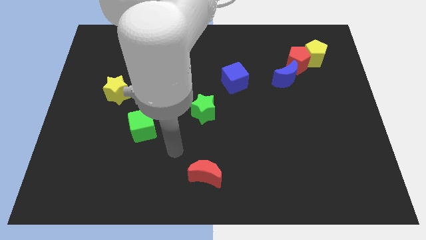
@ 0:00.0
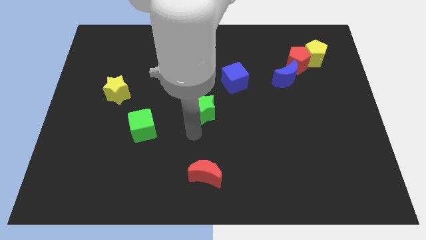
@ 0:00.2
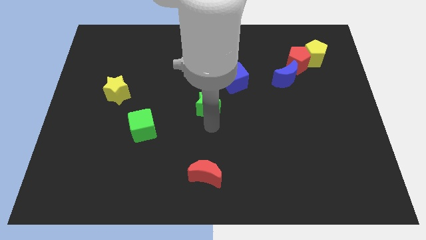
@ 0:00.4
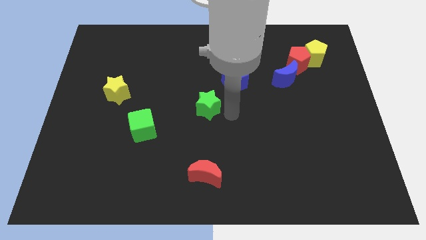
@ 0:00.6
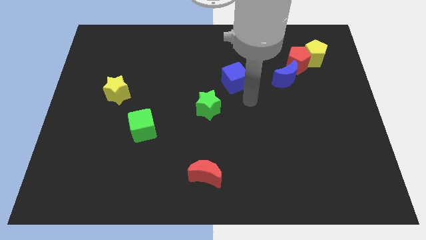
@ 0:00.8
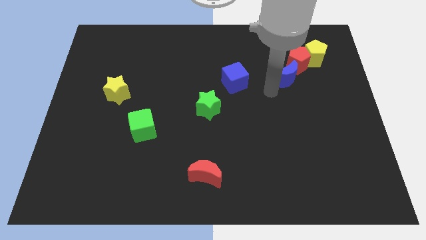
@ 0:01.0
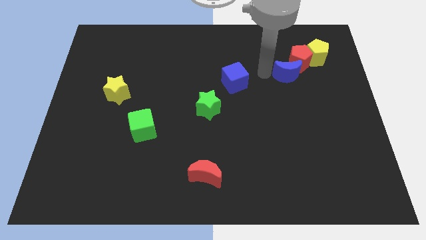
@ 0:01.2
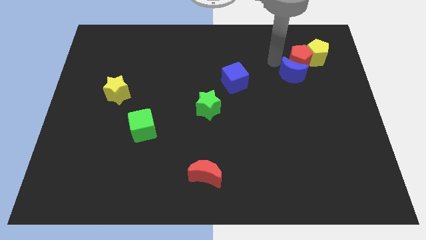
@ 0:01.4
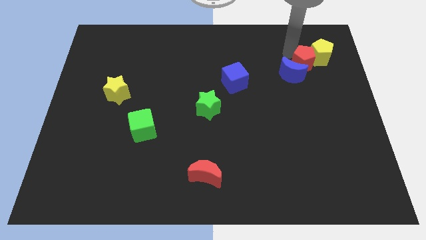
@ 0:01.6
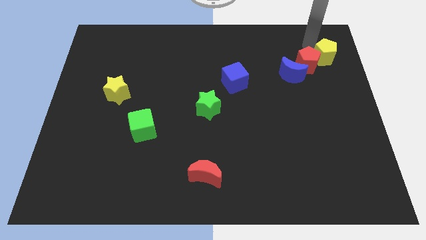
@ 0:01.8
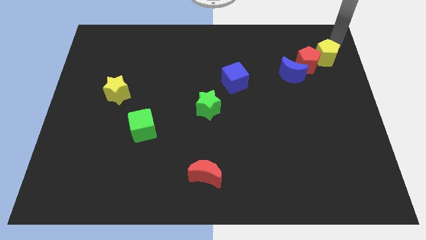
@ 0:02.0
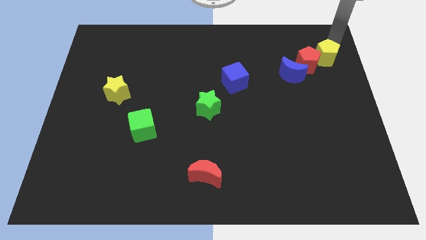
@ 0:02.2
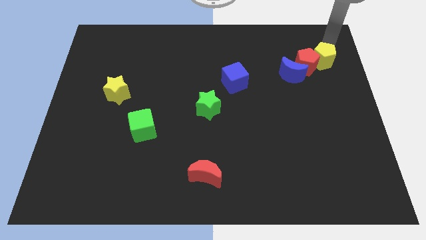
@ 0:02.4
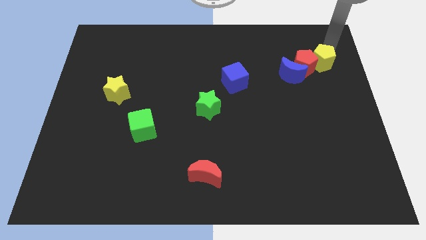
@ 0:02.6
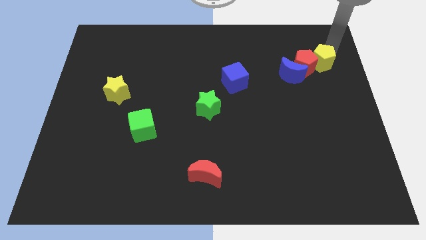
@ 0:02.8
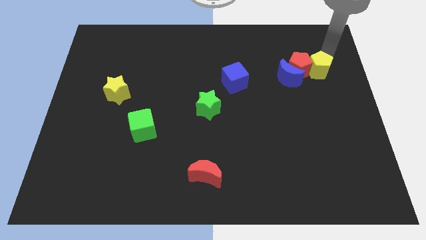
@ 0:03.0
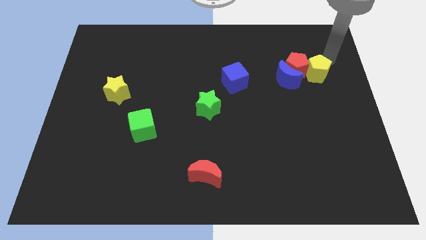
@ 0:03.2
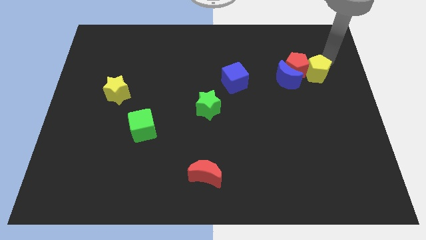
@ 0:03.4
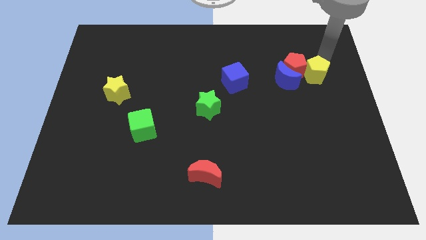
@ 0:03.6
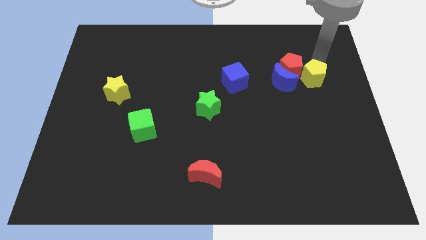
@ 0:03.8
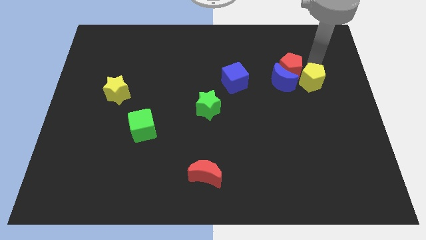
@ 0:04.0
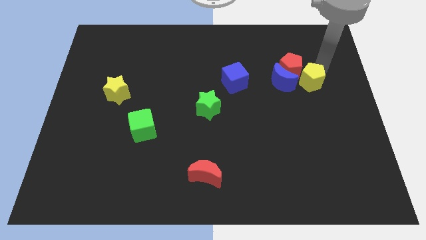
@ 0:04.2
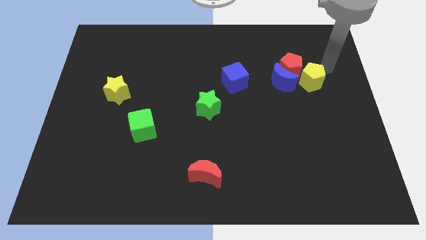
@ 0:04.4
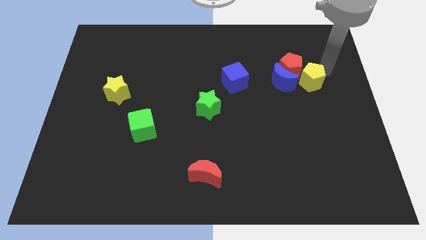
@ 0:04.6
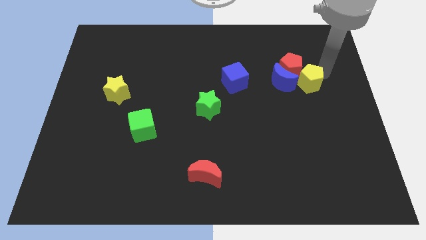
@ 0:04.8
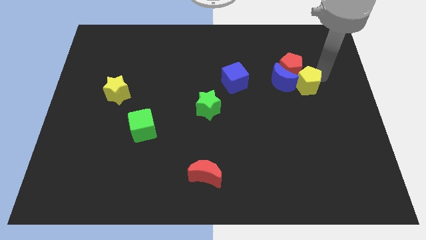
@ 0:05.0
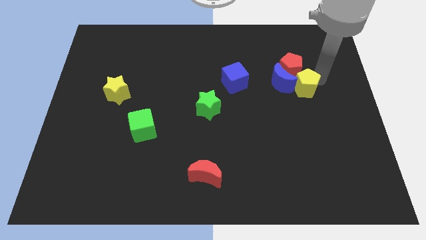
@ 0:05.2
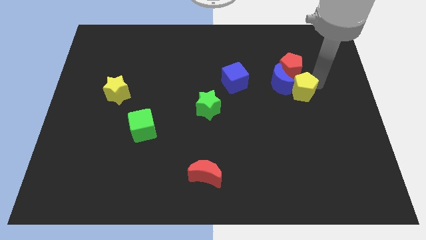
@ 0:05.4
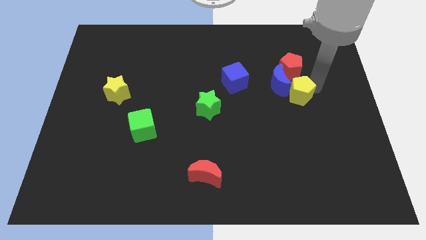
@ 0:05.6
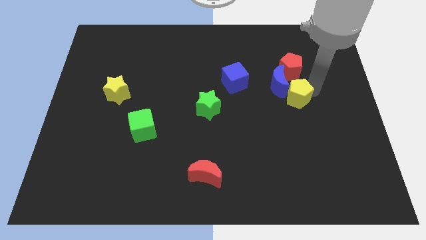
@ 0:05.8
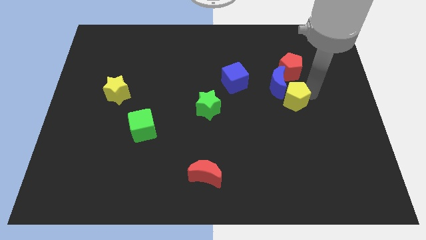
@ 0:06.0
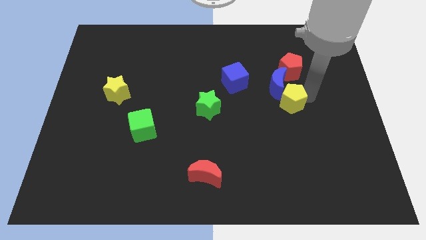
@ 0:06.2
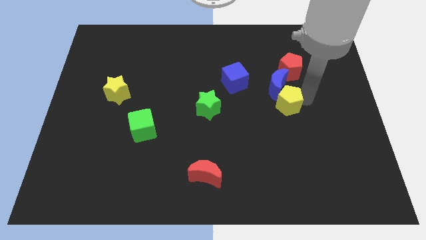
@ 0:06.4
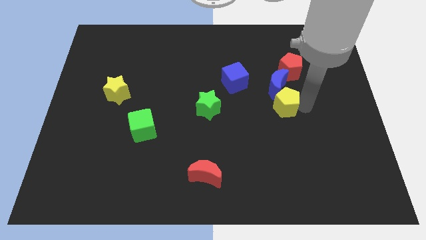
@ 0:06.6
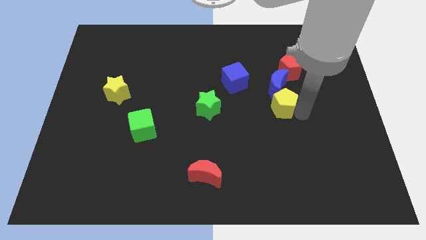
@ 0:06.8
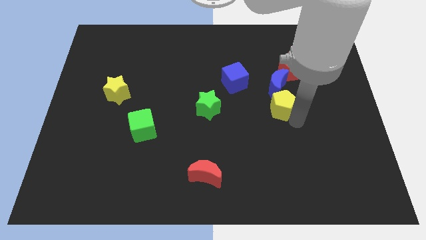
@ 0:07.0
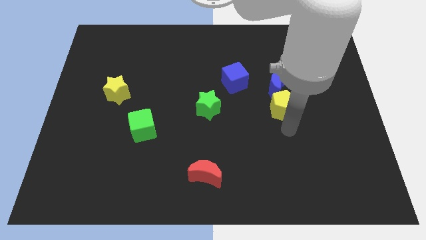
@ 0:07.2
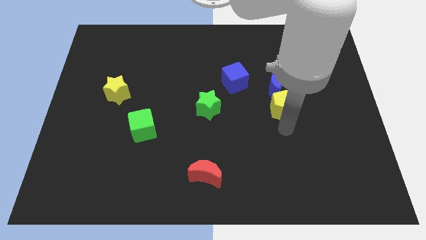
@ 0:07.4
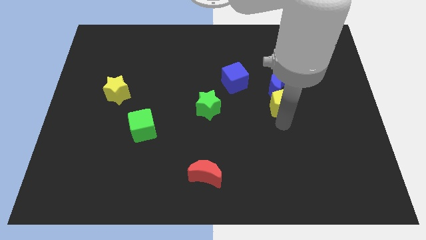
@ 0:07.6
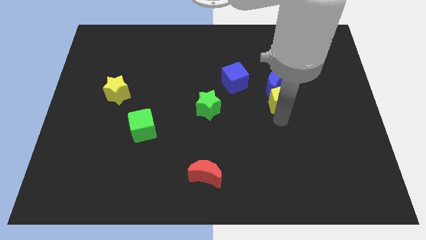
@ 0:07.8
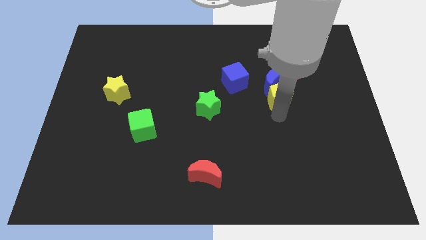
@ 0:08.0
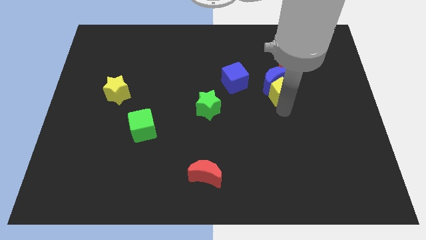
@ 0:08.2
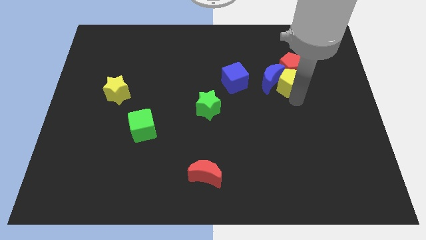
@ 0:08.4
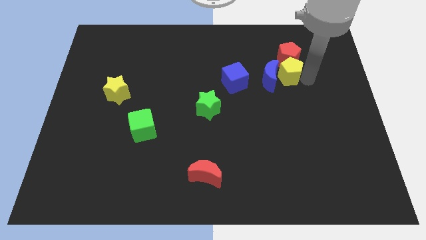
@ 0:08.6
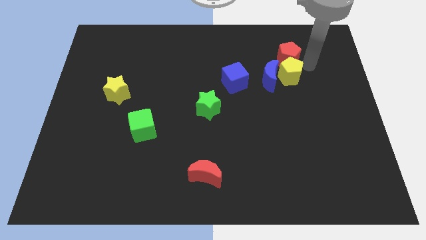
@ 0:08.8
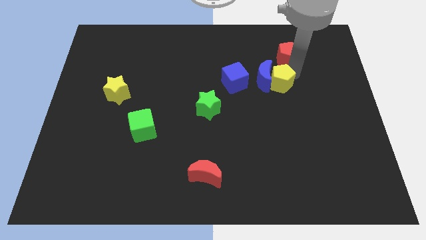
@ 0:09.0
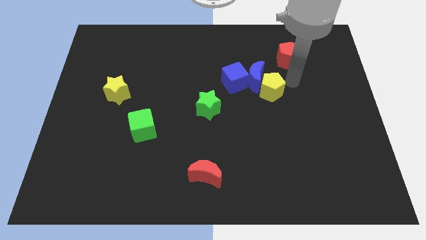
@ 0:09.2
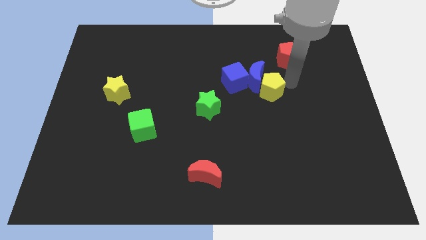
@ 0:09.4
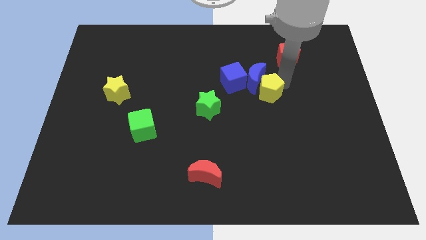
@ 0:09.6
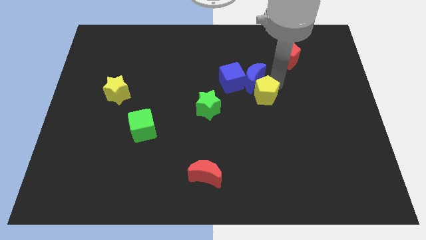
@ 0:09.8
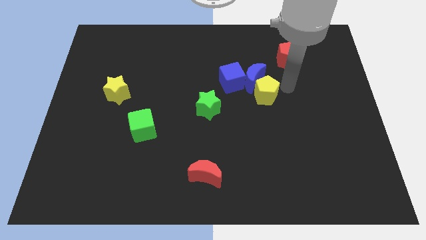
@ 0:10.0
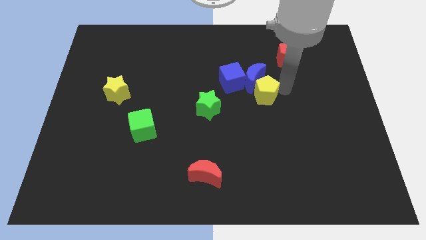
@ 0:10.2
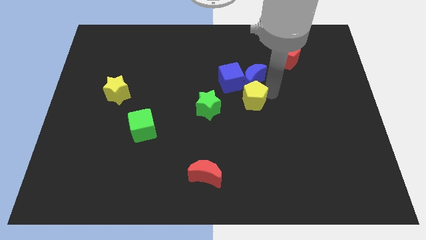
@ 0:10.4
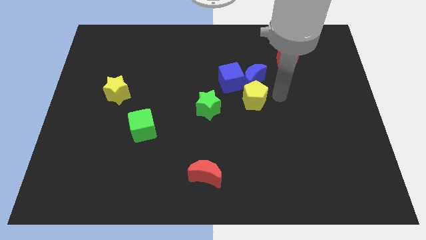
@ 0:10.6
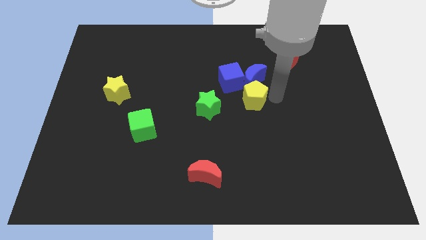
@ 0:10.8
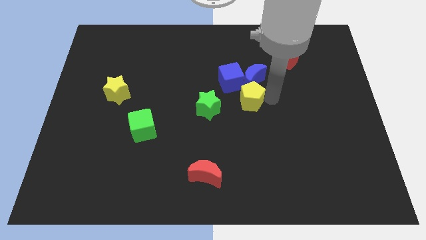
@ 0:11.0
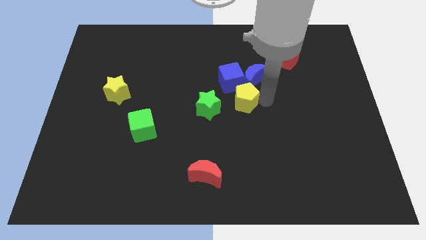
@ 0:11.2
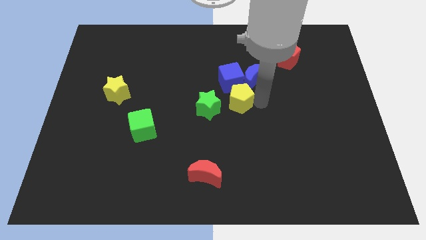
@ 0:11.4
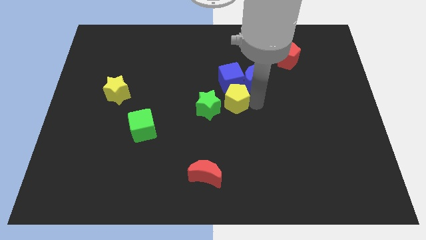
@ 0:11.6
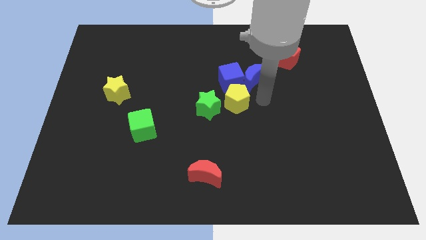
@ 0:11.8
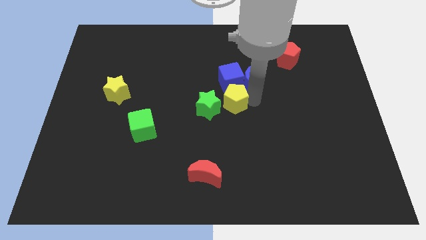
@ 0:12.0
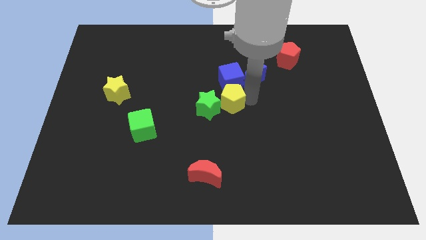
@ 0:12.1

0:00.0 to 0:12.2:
move the yellow pentagon to the green star

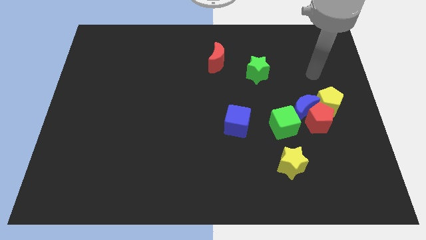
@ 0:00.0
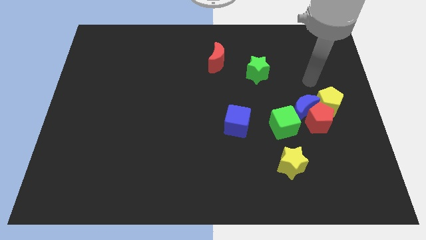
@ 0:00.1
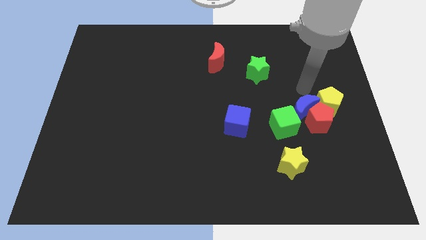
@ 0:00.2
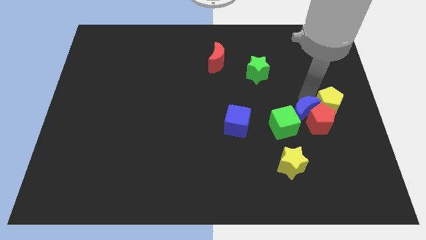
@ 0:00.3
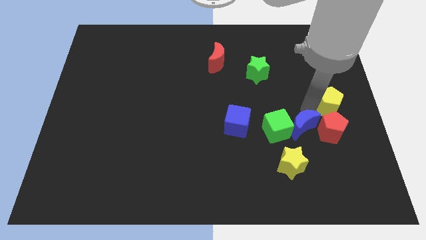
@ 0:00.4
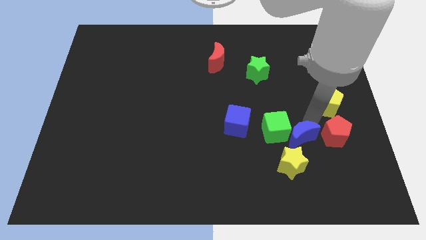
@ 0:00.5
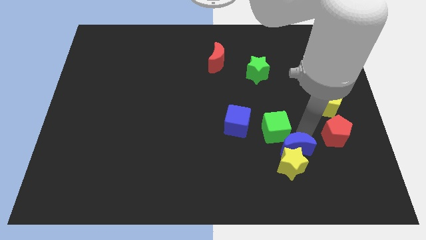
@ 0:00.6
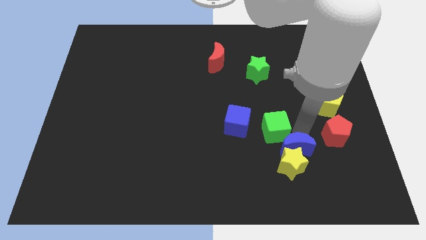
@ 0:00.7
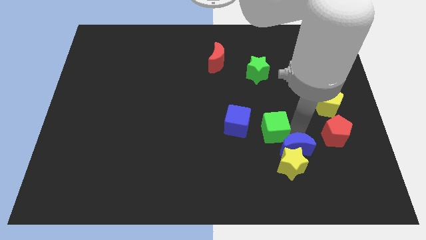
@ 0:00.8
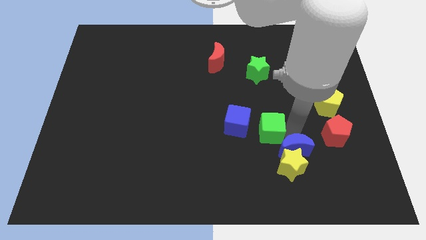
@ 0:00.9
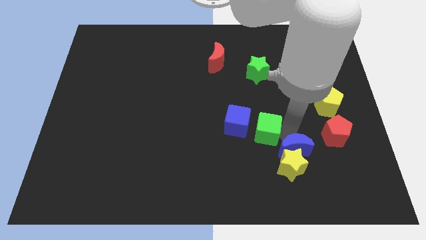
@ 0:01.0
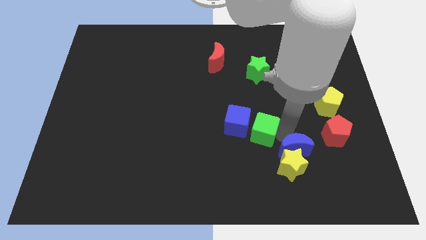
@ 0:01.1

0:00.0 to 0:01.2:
push the green cube next to the blue cube

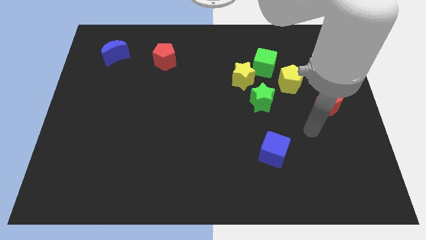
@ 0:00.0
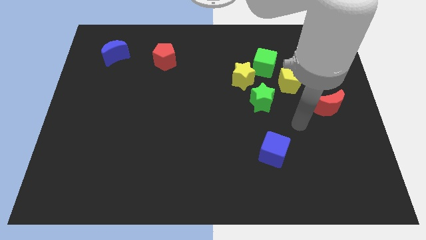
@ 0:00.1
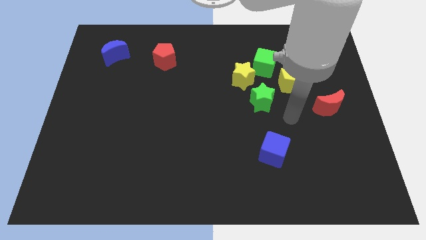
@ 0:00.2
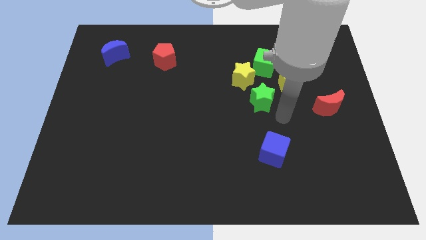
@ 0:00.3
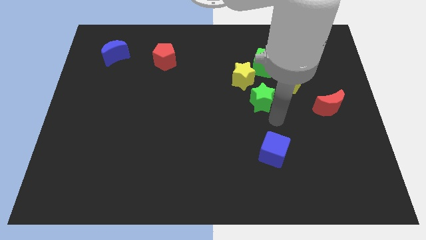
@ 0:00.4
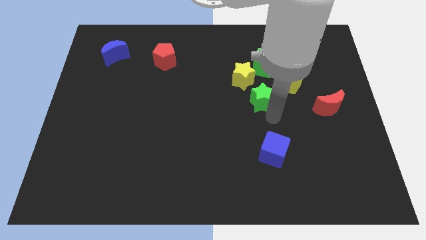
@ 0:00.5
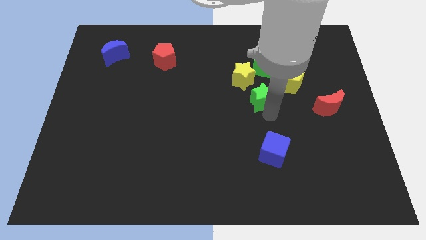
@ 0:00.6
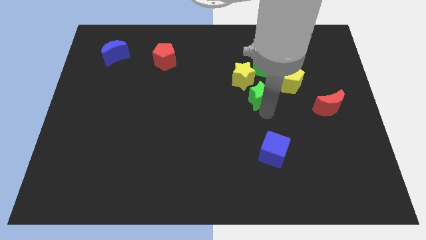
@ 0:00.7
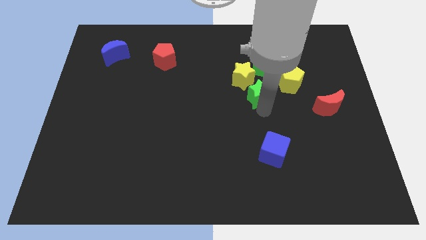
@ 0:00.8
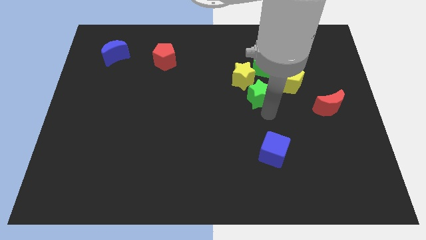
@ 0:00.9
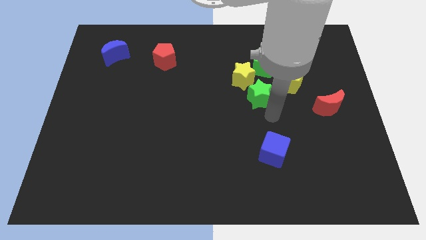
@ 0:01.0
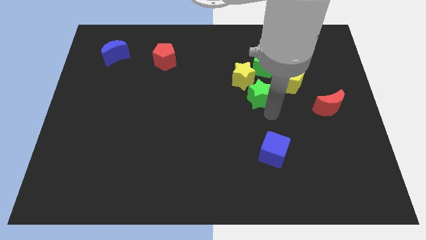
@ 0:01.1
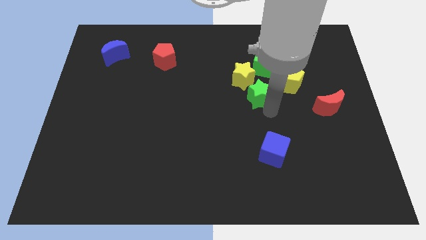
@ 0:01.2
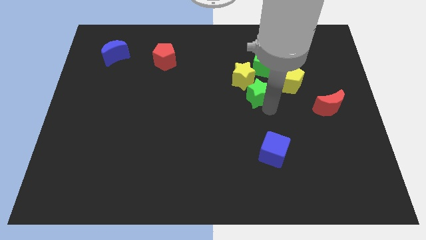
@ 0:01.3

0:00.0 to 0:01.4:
put the green star close to the yellow star
